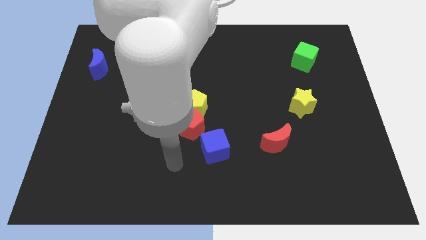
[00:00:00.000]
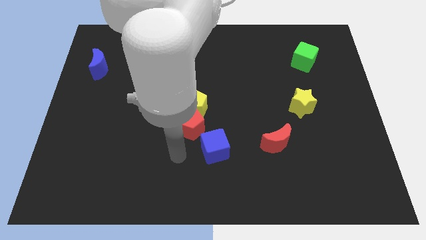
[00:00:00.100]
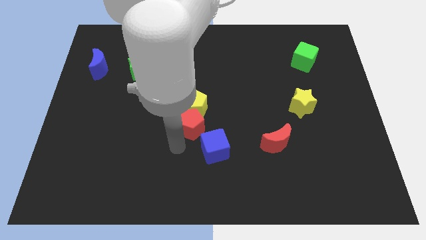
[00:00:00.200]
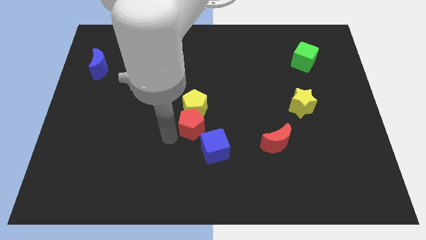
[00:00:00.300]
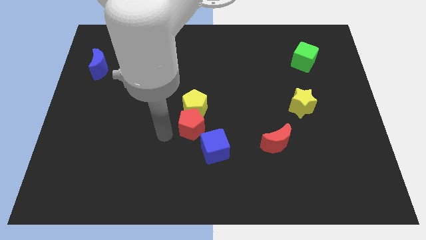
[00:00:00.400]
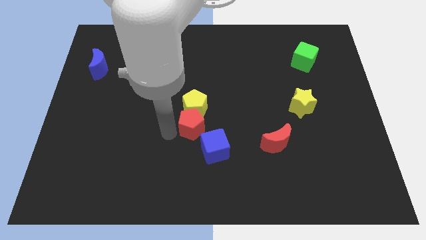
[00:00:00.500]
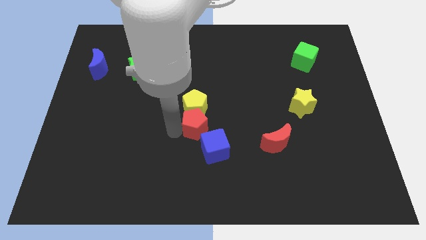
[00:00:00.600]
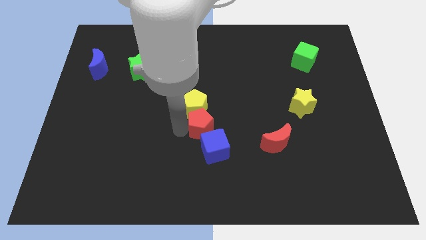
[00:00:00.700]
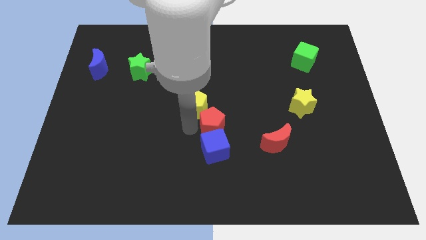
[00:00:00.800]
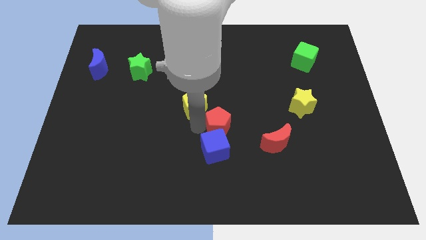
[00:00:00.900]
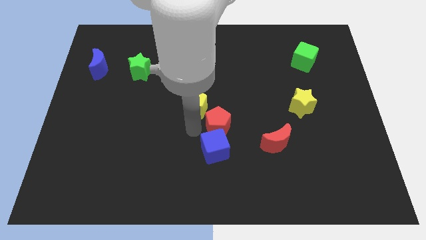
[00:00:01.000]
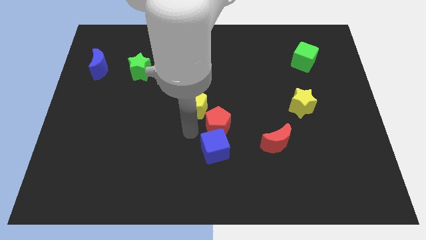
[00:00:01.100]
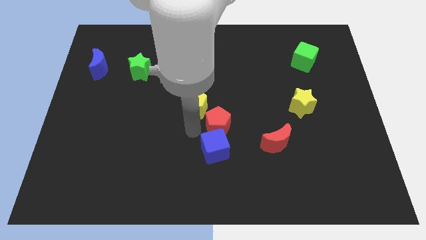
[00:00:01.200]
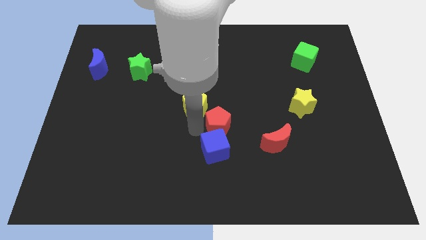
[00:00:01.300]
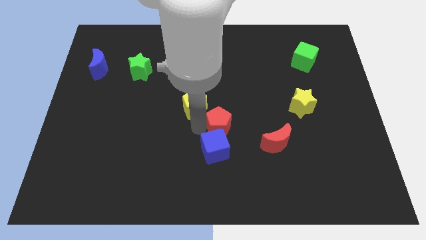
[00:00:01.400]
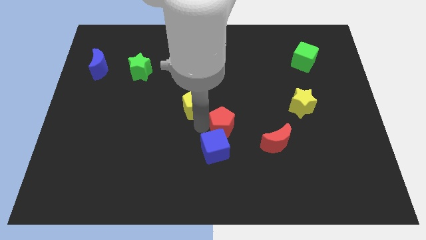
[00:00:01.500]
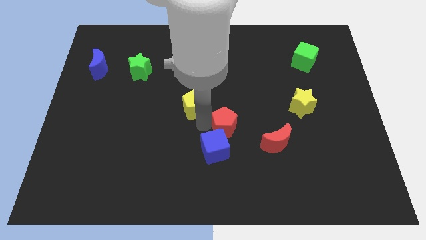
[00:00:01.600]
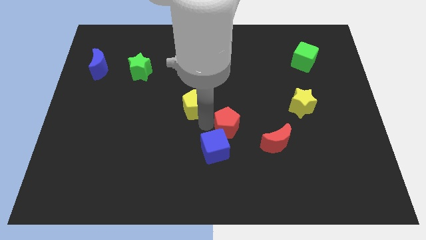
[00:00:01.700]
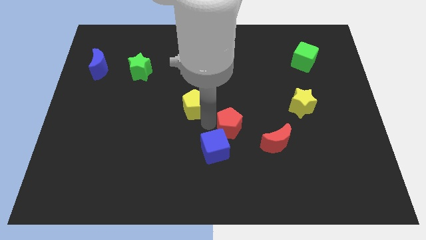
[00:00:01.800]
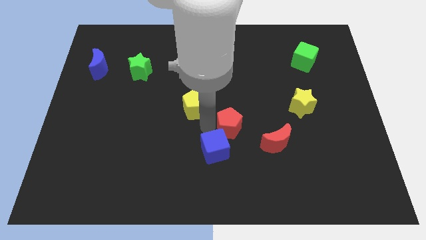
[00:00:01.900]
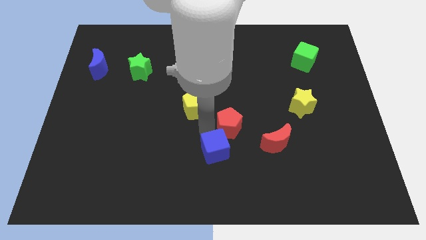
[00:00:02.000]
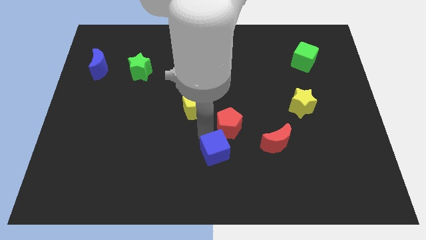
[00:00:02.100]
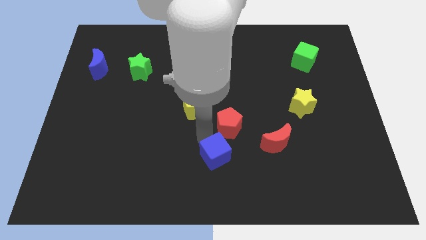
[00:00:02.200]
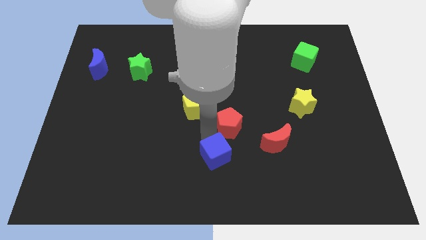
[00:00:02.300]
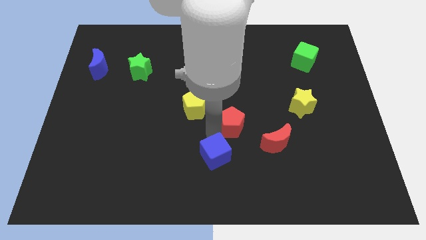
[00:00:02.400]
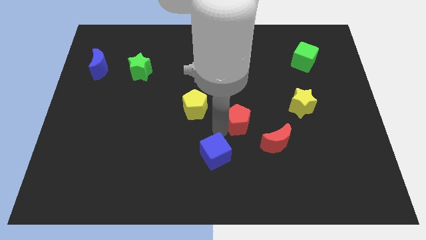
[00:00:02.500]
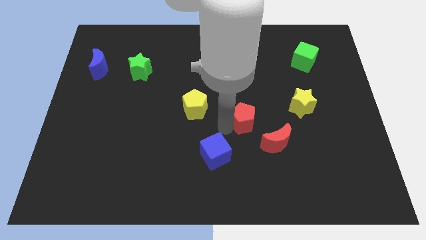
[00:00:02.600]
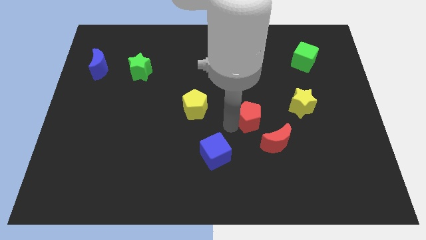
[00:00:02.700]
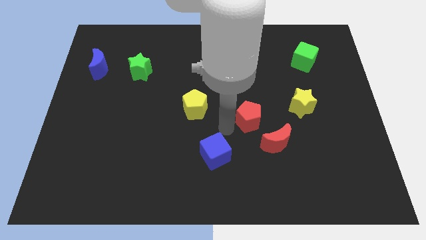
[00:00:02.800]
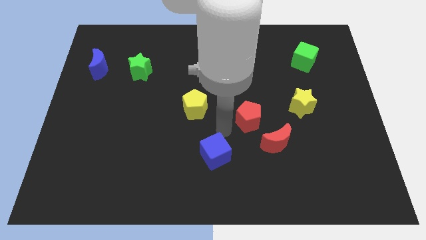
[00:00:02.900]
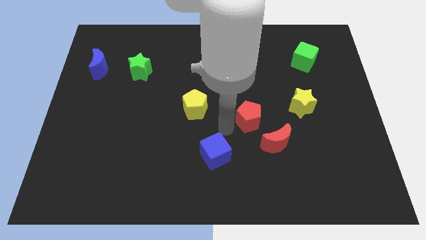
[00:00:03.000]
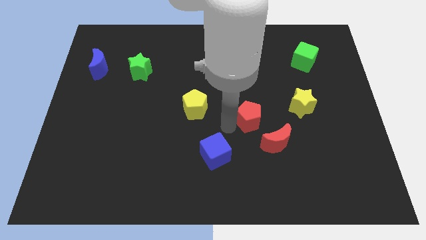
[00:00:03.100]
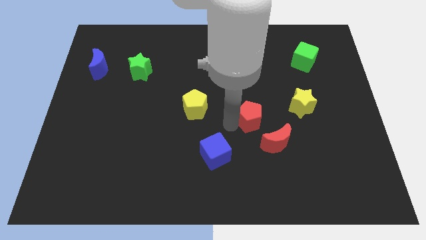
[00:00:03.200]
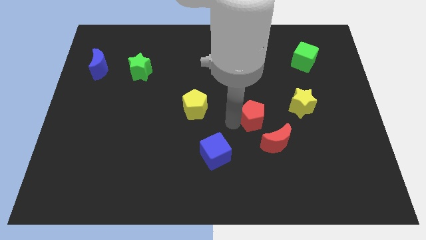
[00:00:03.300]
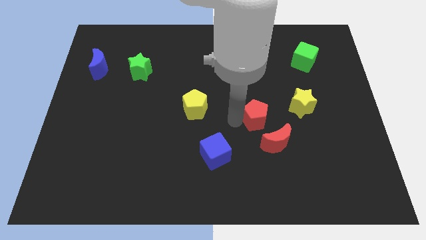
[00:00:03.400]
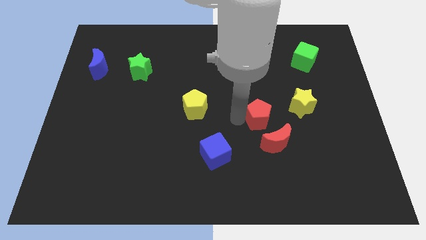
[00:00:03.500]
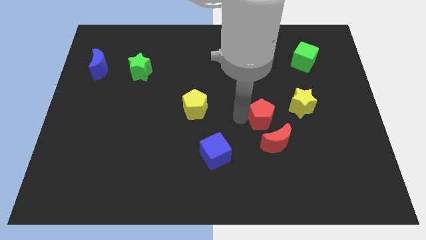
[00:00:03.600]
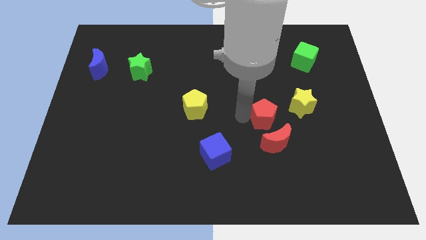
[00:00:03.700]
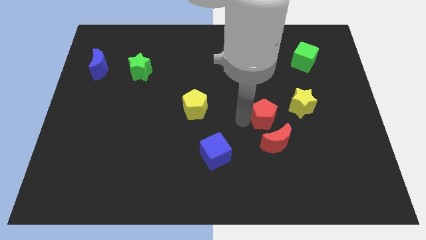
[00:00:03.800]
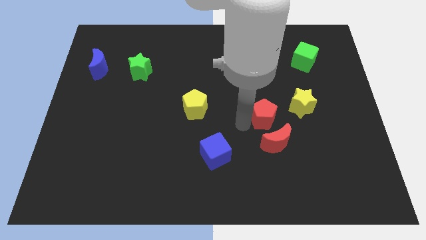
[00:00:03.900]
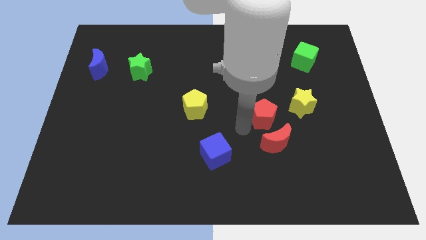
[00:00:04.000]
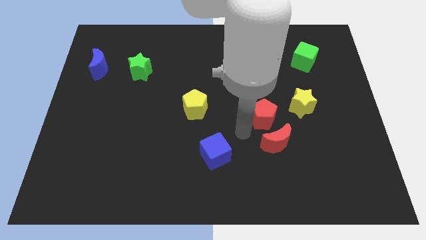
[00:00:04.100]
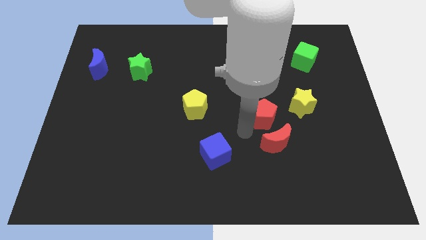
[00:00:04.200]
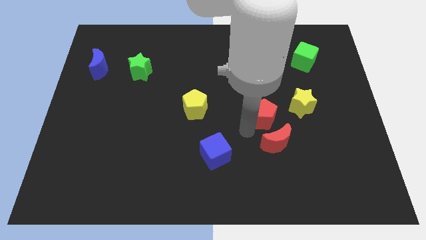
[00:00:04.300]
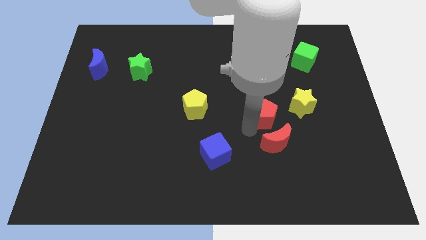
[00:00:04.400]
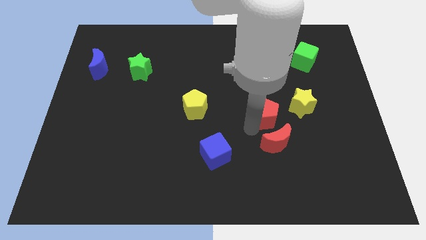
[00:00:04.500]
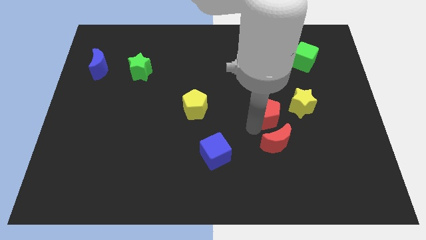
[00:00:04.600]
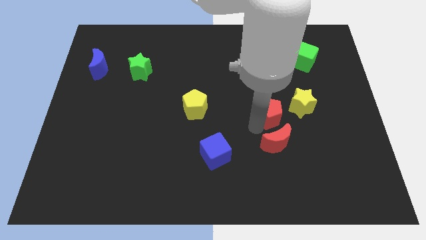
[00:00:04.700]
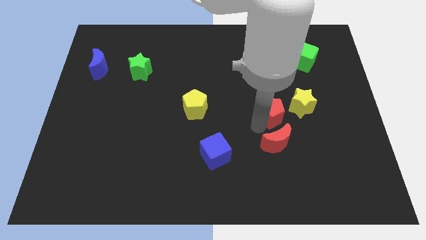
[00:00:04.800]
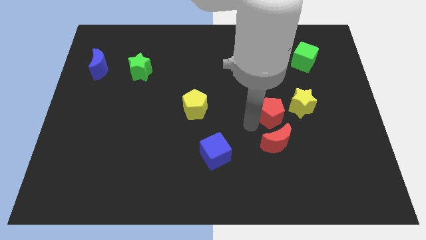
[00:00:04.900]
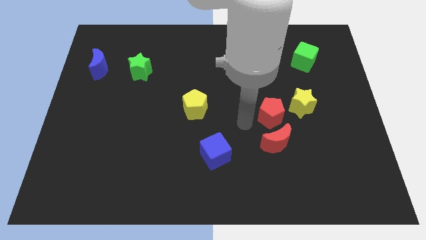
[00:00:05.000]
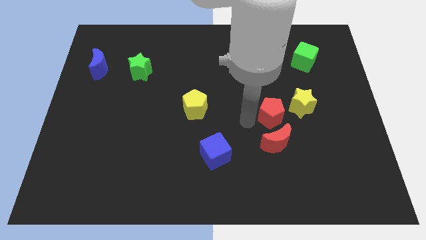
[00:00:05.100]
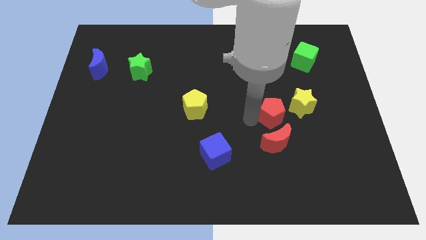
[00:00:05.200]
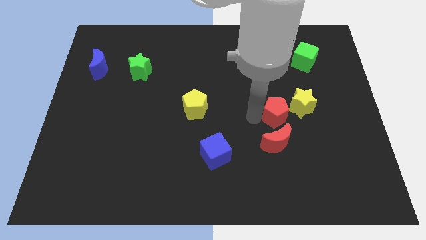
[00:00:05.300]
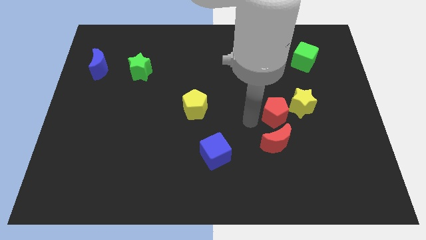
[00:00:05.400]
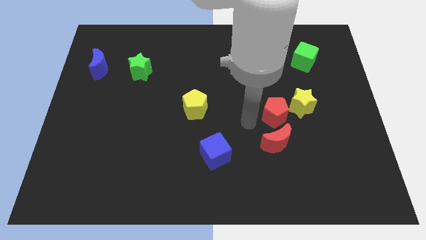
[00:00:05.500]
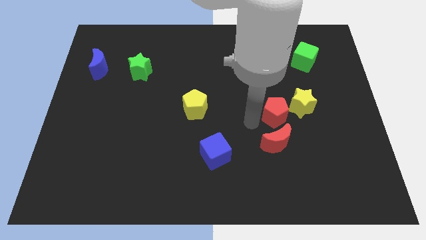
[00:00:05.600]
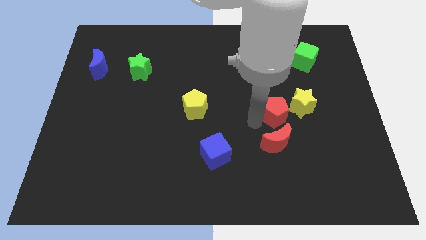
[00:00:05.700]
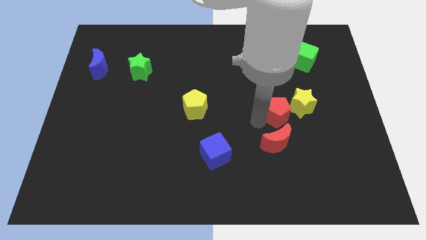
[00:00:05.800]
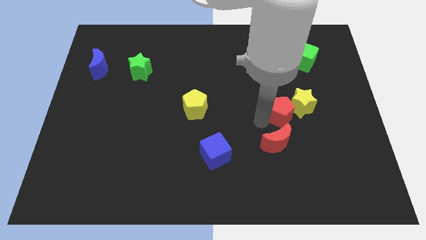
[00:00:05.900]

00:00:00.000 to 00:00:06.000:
move the red pentagon next to the yellow star
